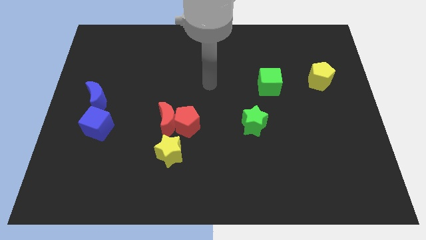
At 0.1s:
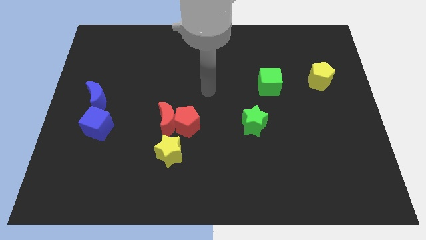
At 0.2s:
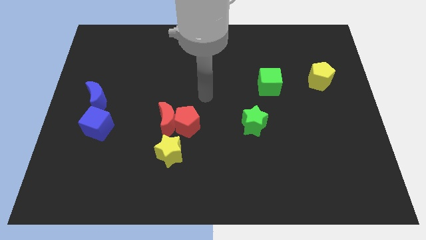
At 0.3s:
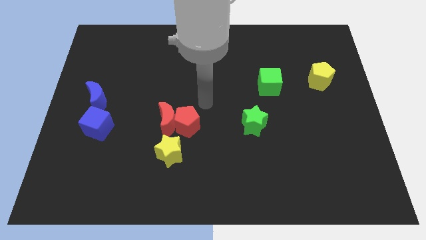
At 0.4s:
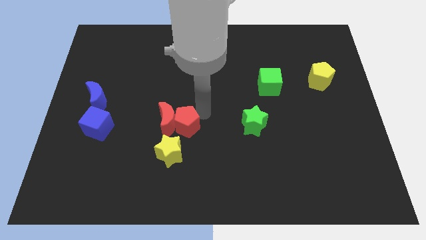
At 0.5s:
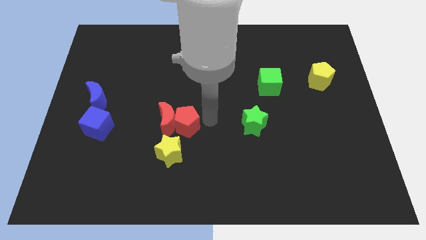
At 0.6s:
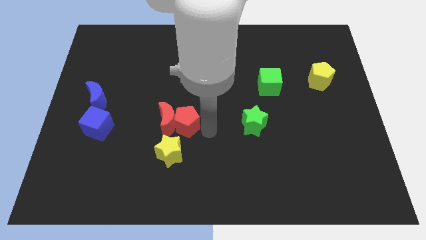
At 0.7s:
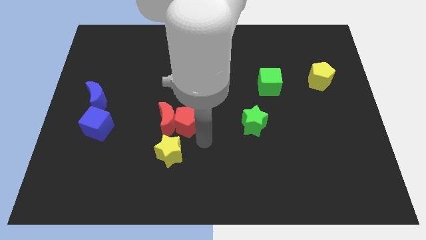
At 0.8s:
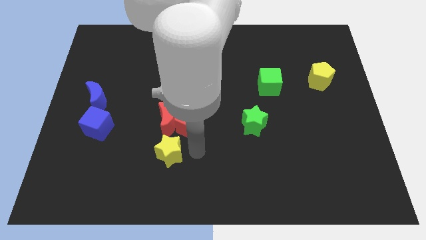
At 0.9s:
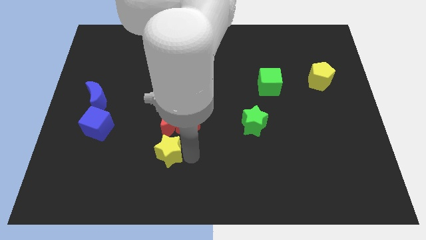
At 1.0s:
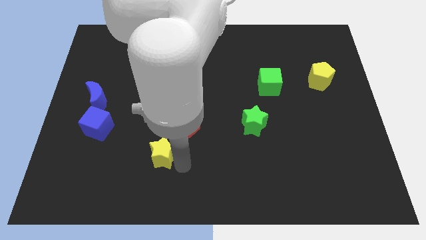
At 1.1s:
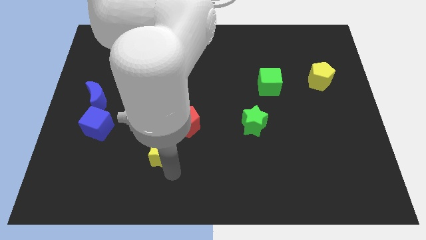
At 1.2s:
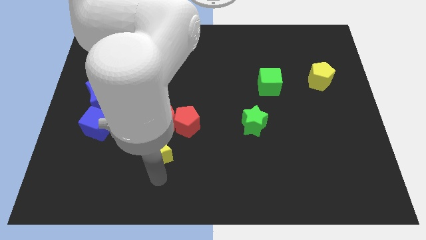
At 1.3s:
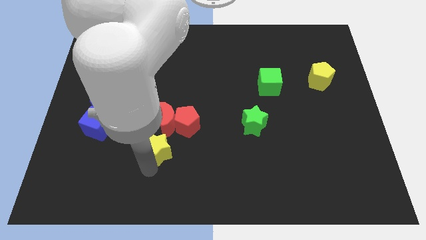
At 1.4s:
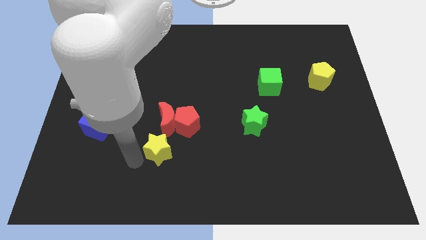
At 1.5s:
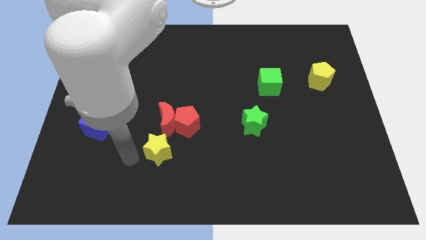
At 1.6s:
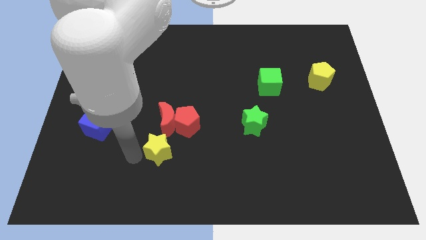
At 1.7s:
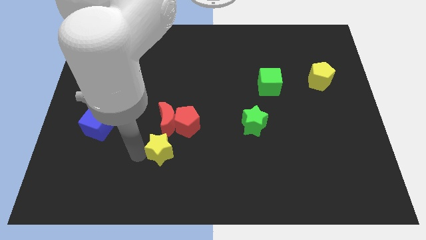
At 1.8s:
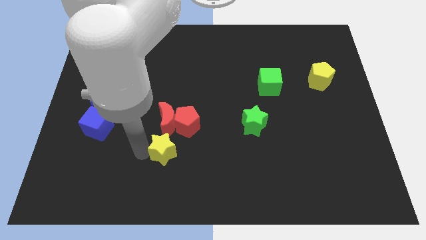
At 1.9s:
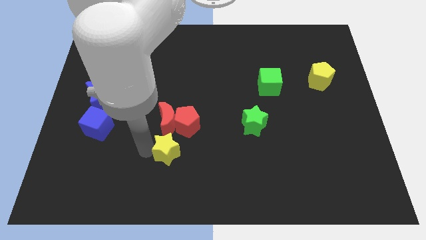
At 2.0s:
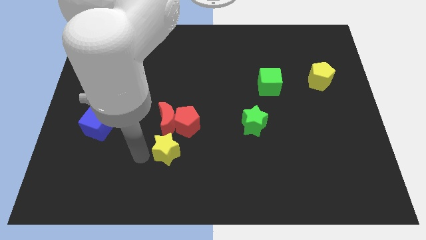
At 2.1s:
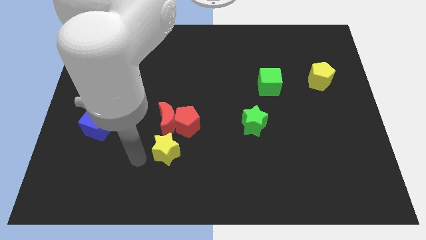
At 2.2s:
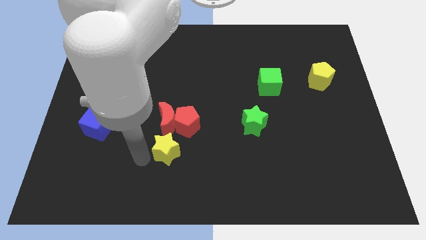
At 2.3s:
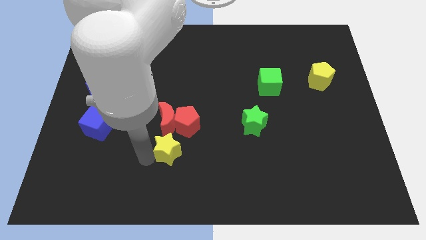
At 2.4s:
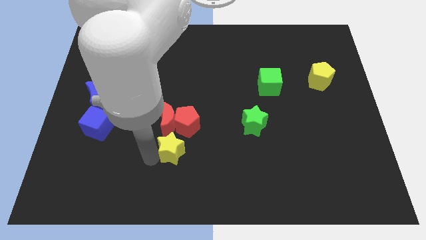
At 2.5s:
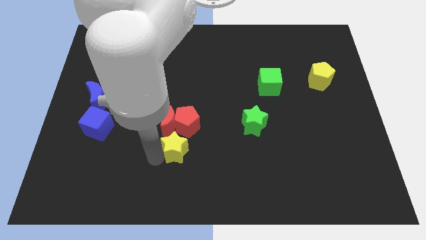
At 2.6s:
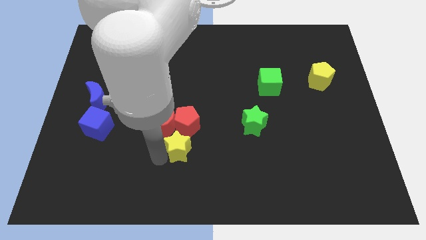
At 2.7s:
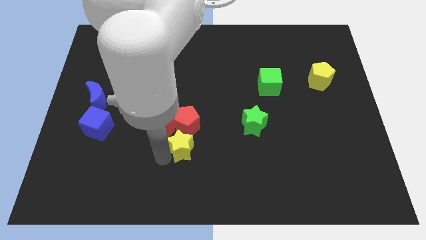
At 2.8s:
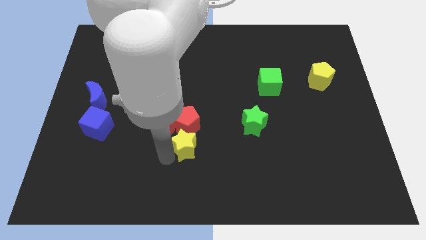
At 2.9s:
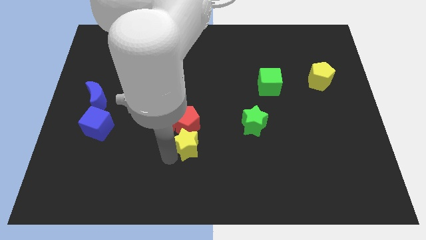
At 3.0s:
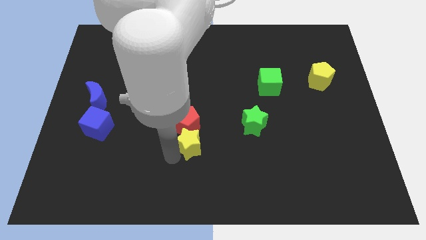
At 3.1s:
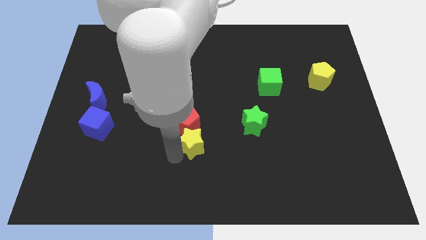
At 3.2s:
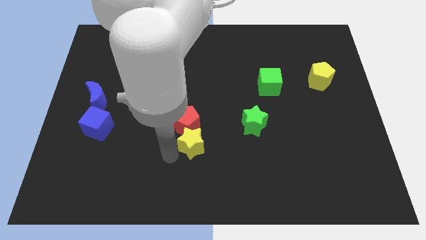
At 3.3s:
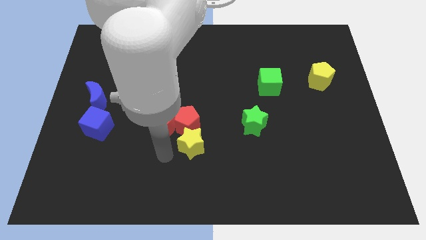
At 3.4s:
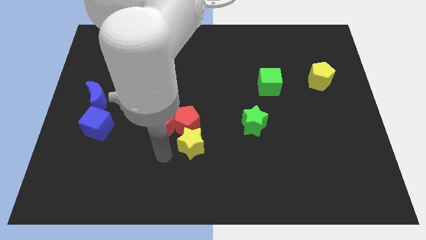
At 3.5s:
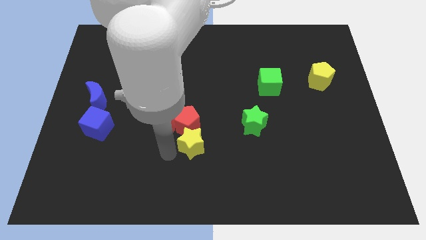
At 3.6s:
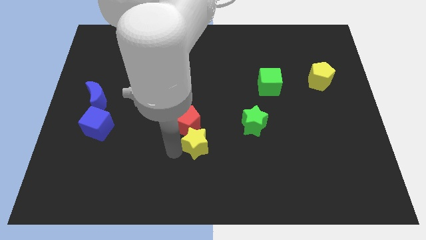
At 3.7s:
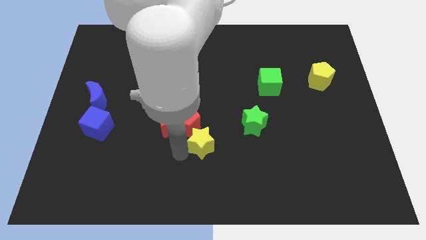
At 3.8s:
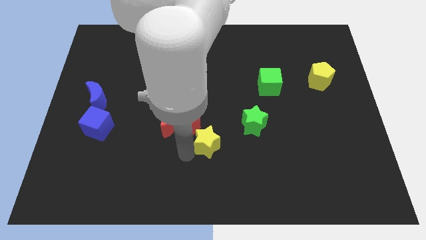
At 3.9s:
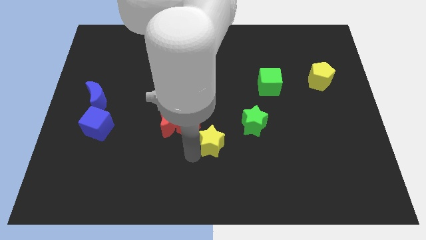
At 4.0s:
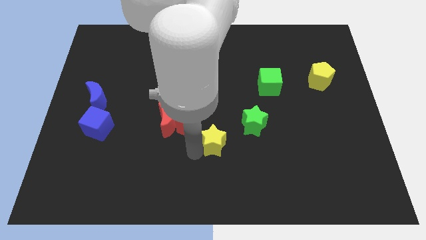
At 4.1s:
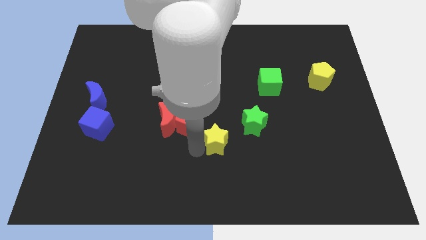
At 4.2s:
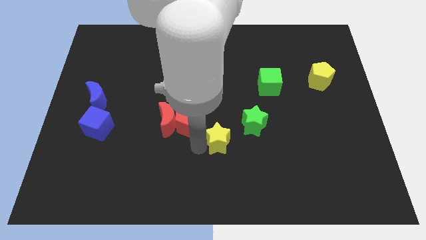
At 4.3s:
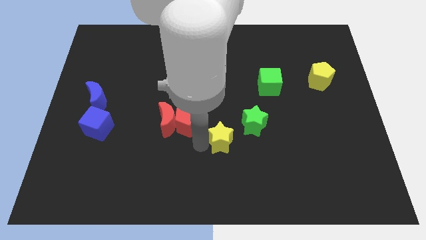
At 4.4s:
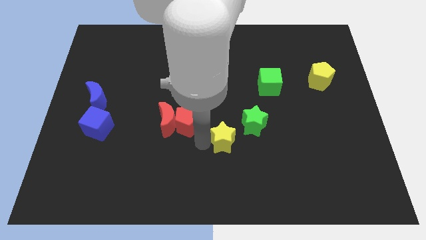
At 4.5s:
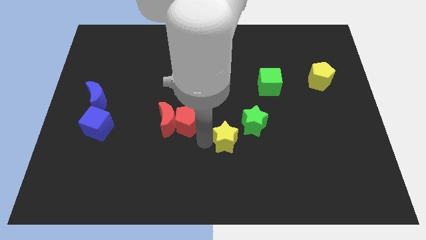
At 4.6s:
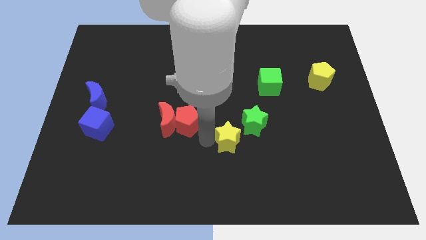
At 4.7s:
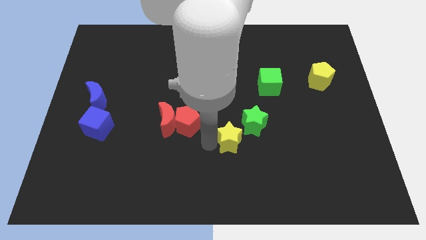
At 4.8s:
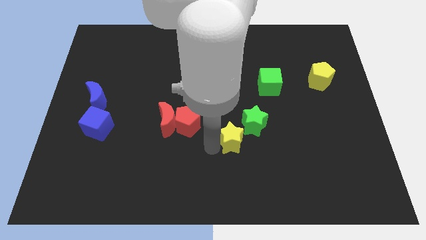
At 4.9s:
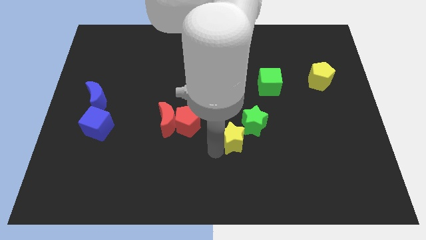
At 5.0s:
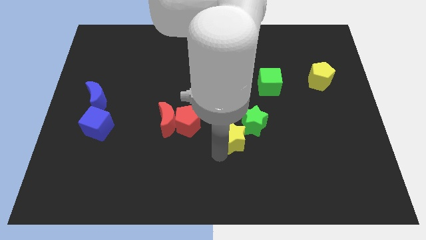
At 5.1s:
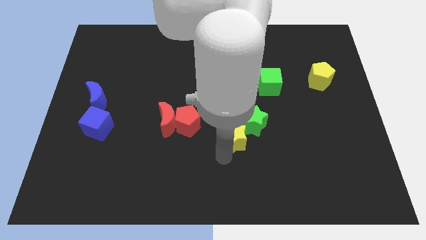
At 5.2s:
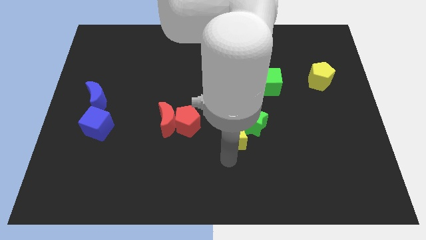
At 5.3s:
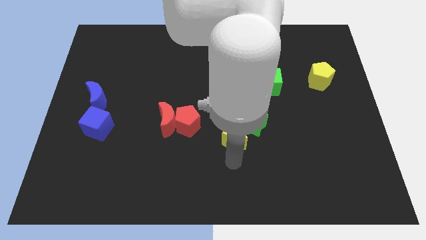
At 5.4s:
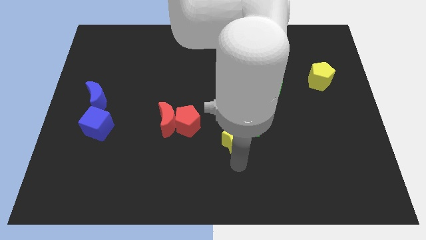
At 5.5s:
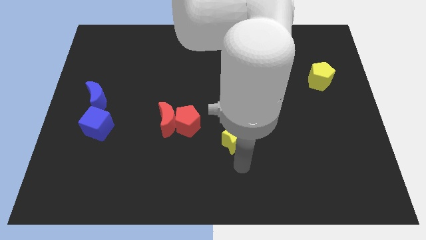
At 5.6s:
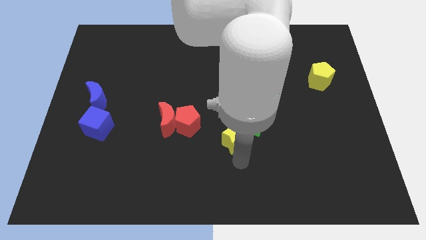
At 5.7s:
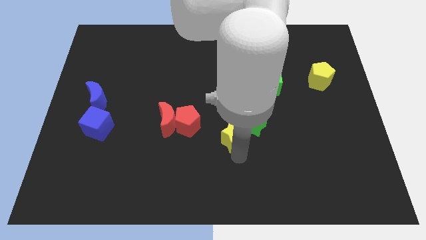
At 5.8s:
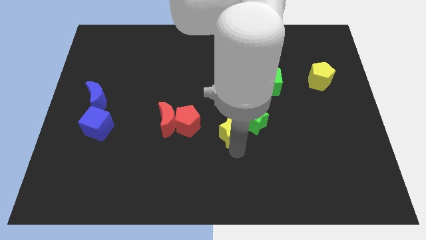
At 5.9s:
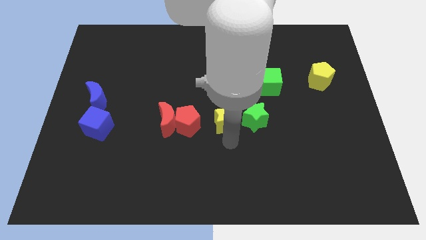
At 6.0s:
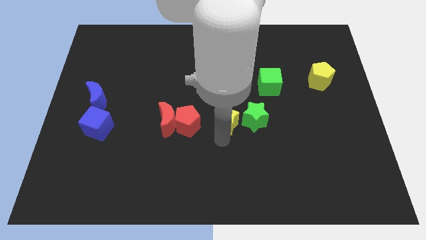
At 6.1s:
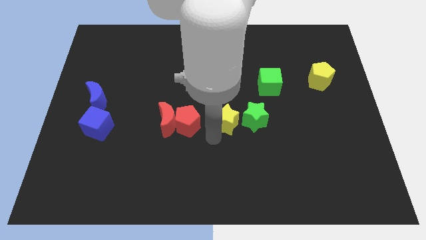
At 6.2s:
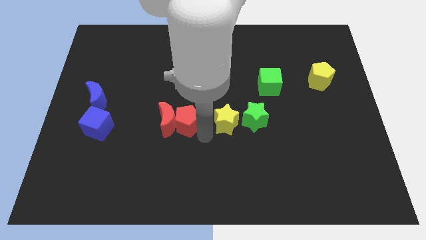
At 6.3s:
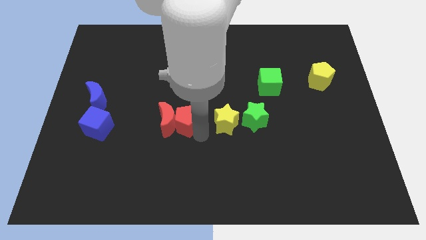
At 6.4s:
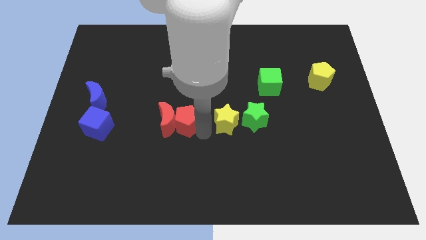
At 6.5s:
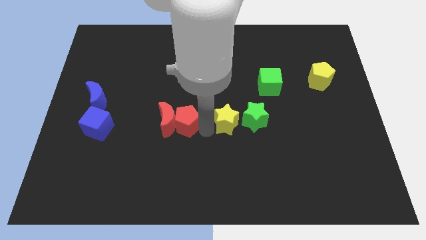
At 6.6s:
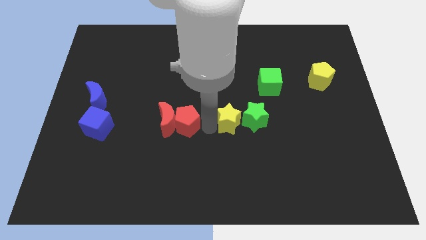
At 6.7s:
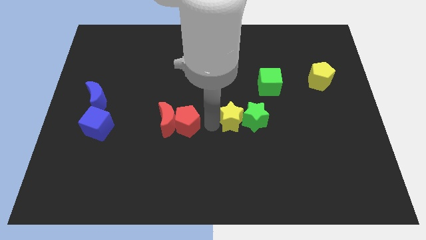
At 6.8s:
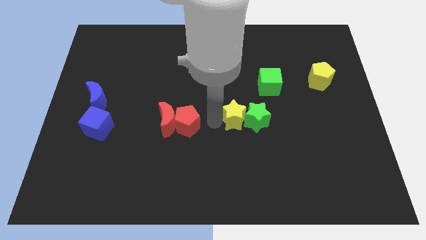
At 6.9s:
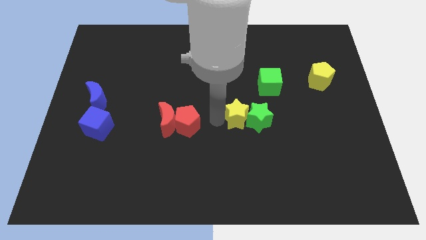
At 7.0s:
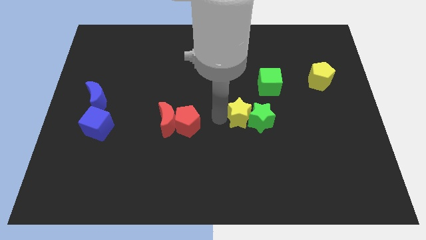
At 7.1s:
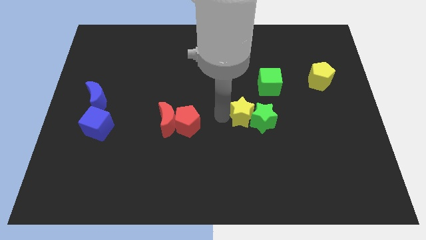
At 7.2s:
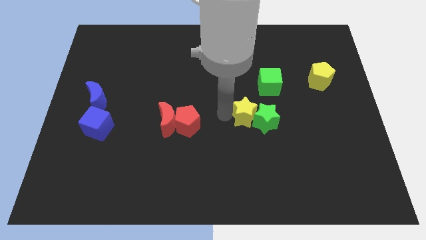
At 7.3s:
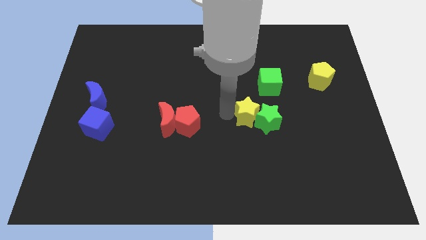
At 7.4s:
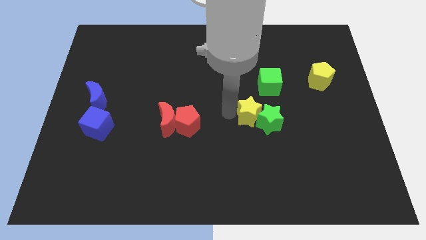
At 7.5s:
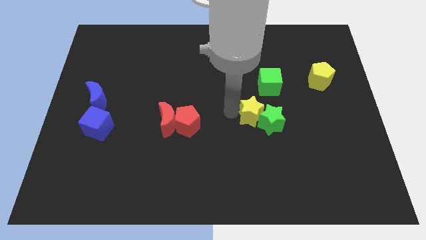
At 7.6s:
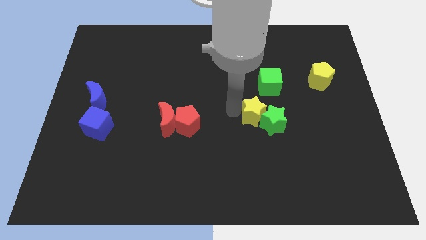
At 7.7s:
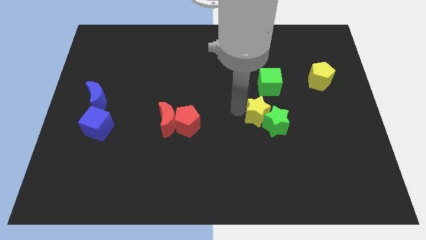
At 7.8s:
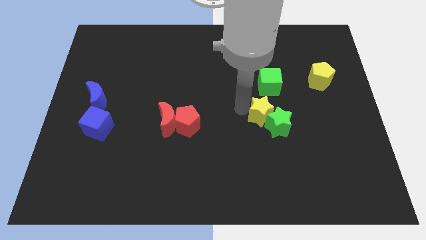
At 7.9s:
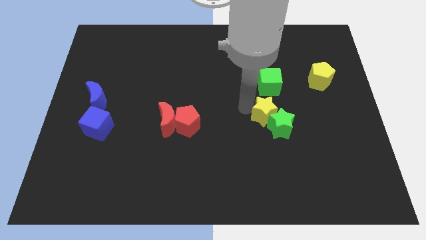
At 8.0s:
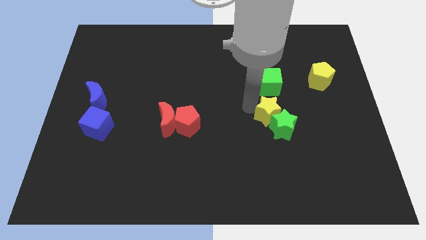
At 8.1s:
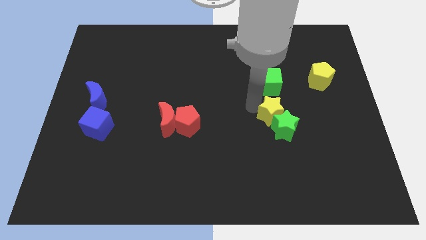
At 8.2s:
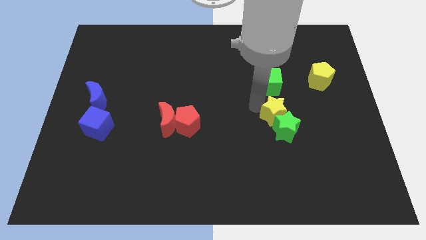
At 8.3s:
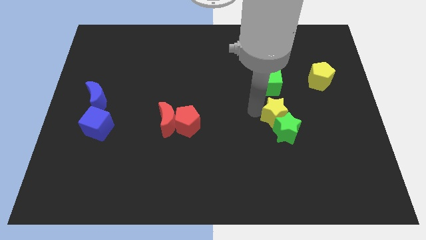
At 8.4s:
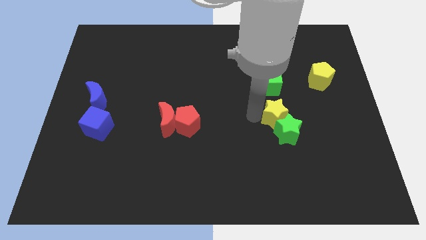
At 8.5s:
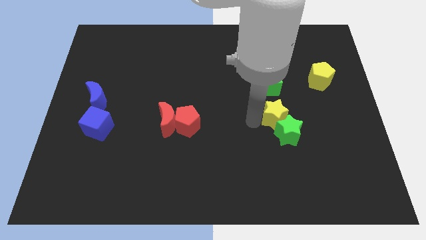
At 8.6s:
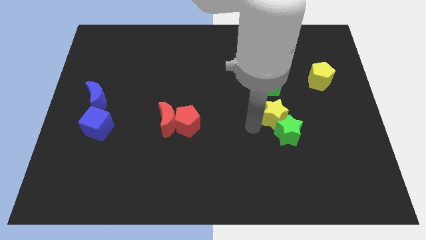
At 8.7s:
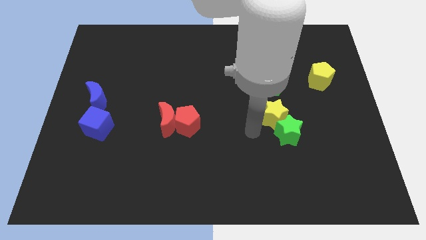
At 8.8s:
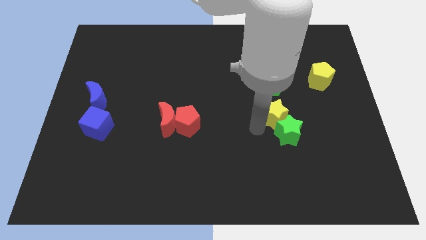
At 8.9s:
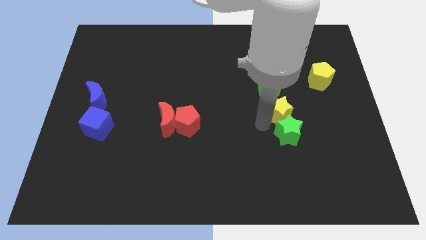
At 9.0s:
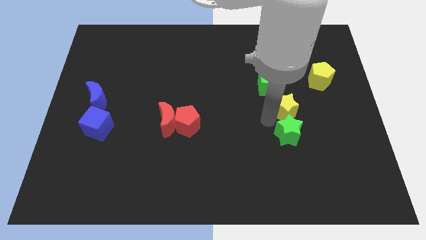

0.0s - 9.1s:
move the yellow star diagonally down and to the right of the green cube
